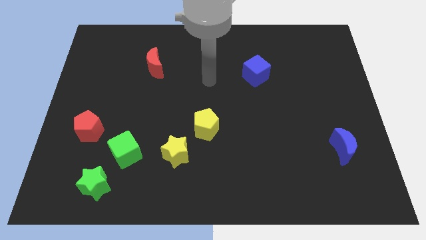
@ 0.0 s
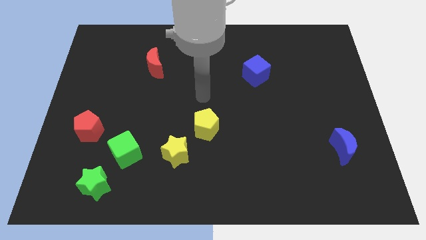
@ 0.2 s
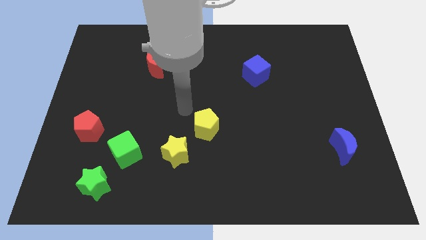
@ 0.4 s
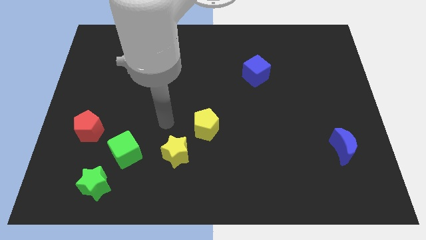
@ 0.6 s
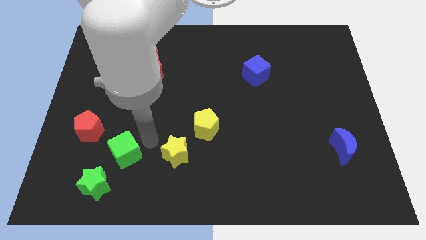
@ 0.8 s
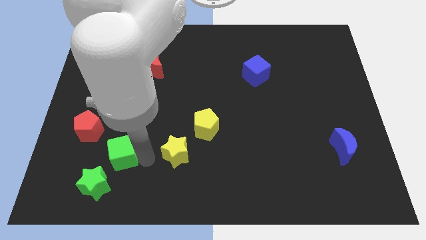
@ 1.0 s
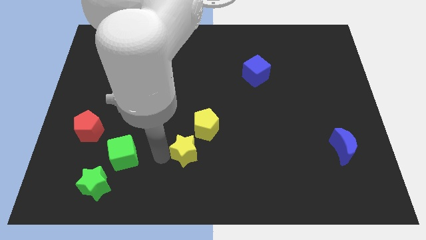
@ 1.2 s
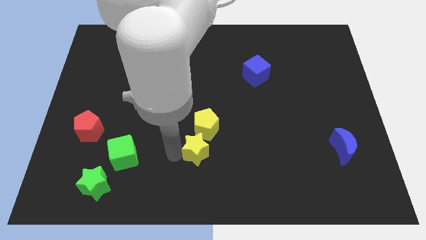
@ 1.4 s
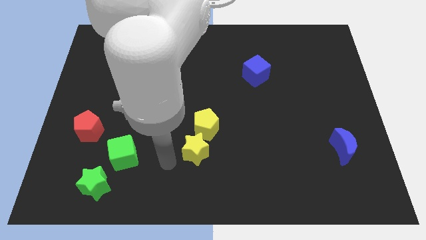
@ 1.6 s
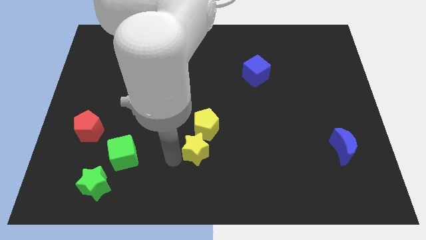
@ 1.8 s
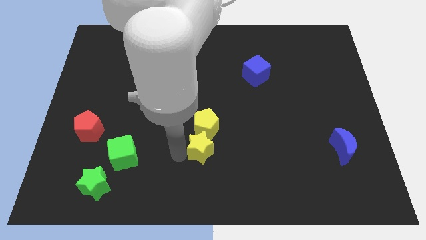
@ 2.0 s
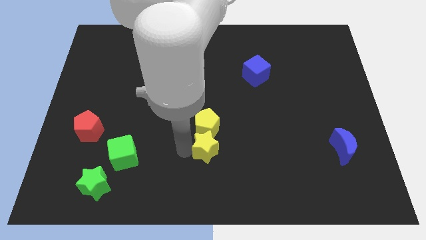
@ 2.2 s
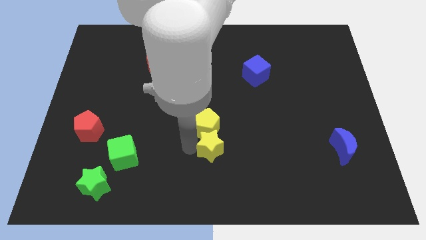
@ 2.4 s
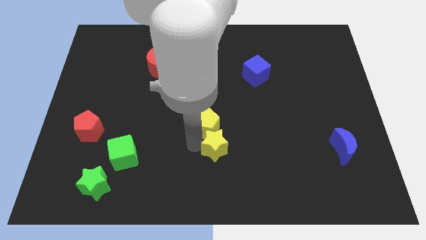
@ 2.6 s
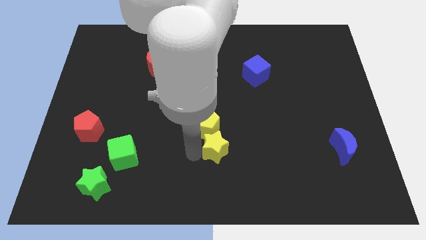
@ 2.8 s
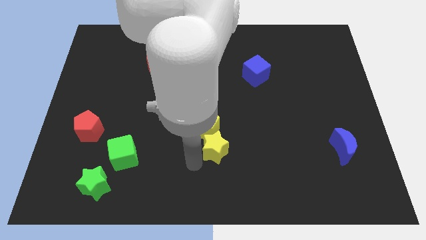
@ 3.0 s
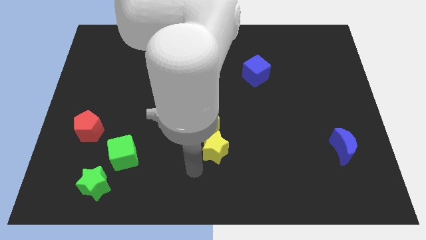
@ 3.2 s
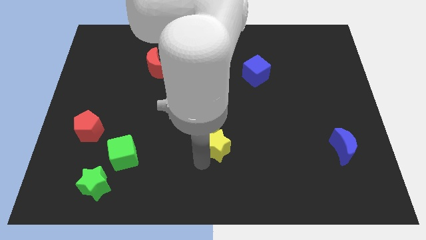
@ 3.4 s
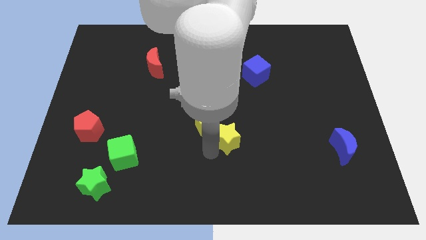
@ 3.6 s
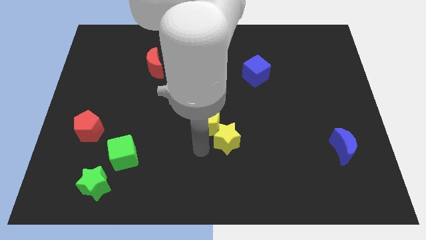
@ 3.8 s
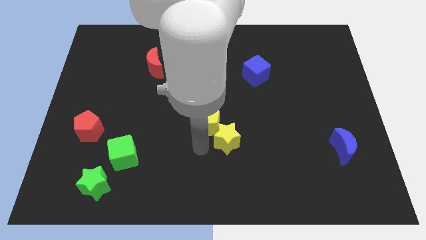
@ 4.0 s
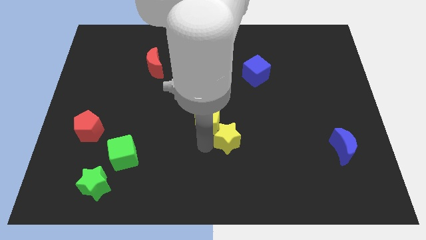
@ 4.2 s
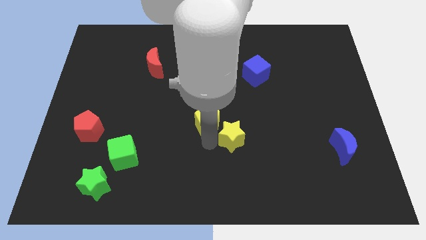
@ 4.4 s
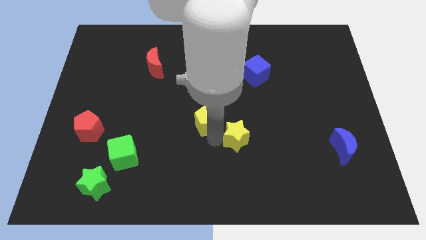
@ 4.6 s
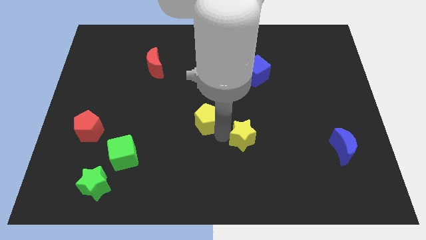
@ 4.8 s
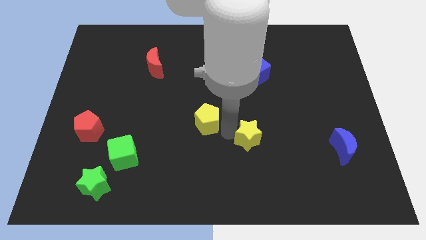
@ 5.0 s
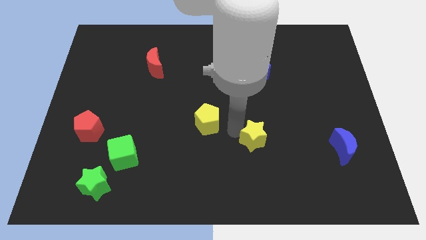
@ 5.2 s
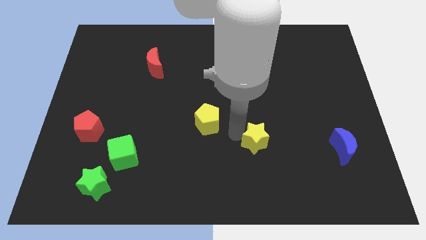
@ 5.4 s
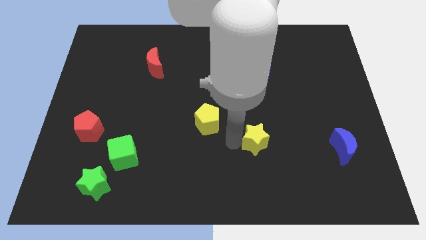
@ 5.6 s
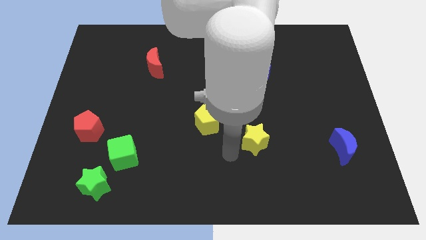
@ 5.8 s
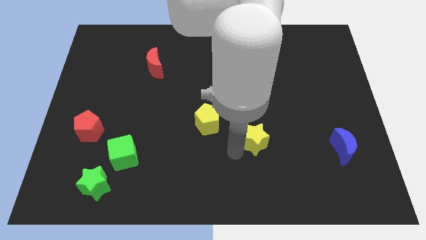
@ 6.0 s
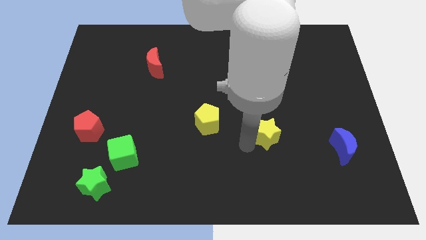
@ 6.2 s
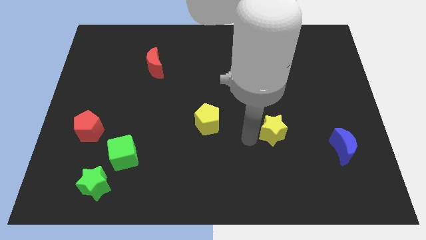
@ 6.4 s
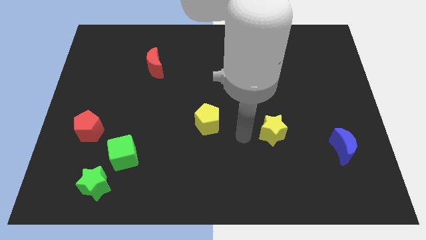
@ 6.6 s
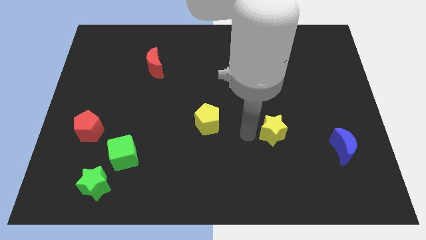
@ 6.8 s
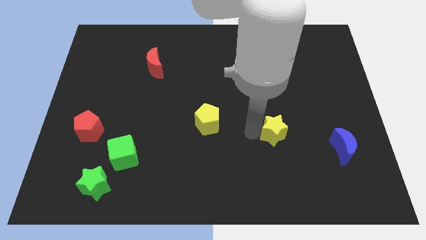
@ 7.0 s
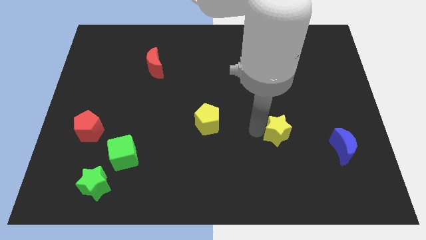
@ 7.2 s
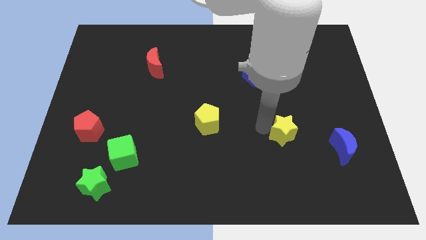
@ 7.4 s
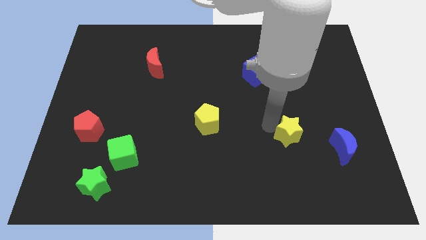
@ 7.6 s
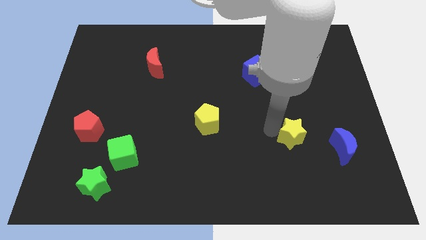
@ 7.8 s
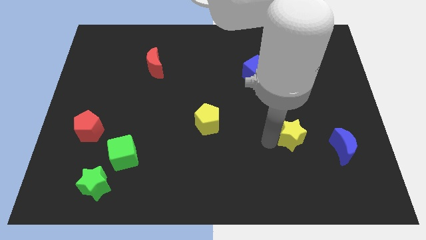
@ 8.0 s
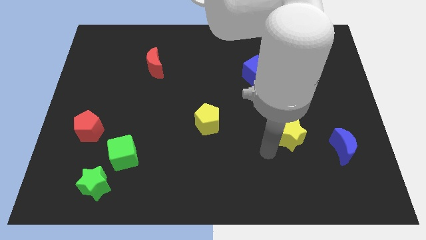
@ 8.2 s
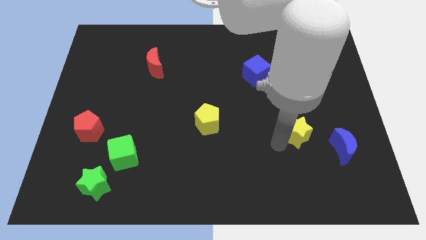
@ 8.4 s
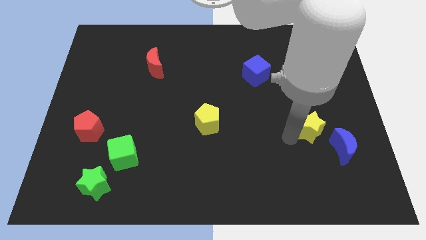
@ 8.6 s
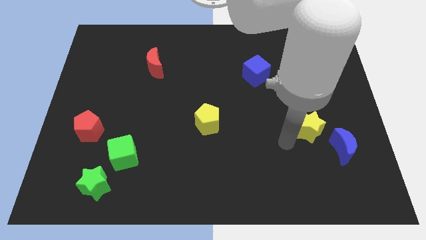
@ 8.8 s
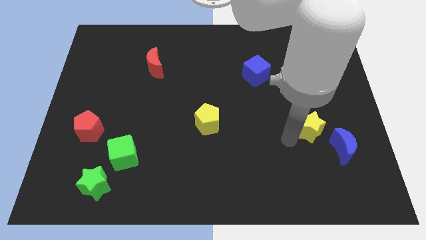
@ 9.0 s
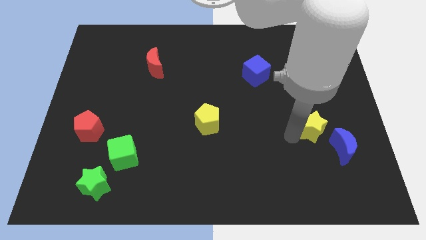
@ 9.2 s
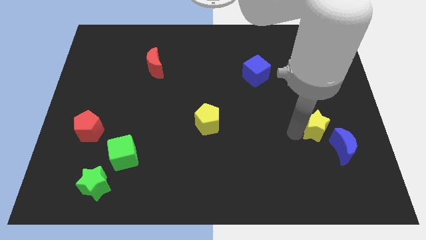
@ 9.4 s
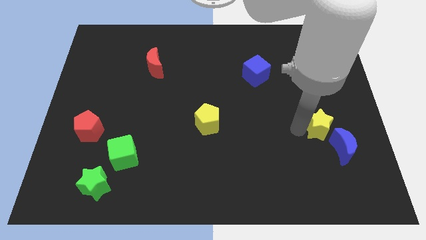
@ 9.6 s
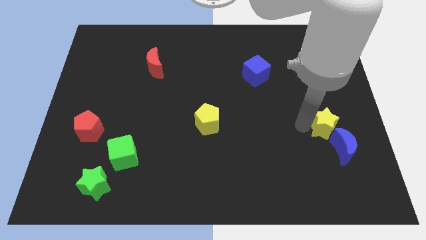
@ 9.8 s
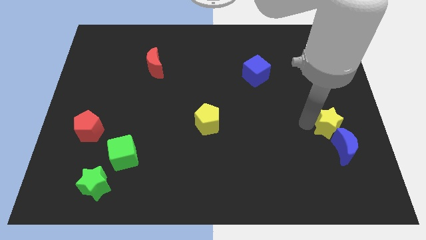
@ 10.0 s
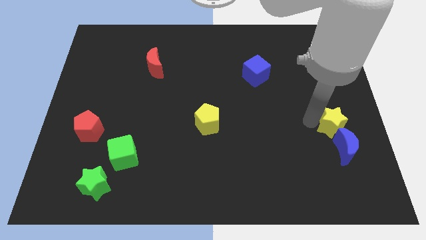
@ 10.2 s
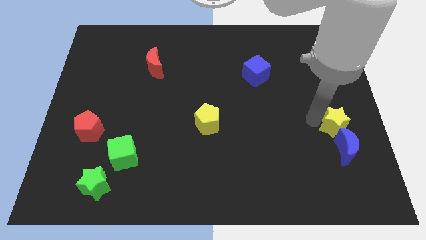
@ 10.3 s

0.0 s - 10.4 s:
slide the yellow star to the center right

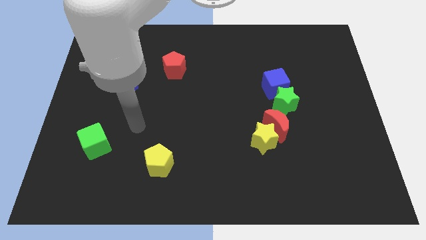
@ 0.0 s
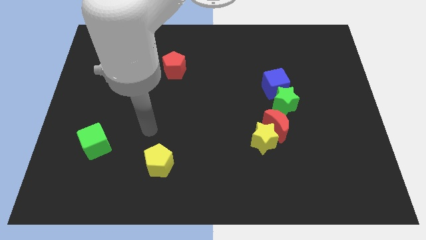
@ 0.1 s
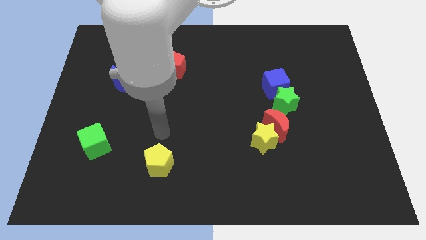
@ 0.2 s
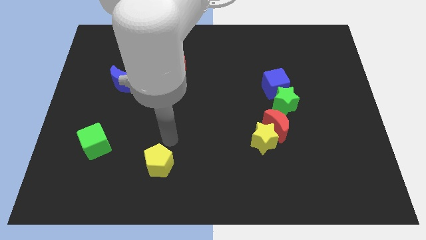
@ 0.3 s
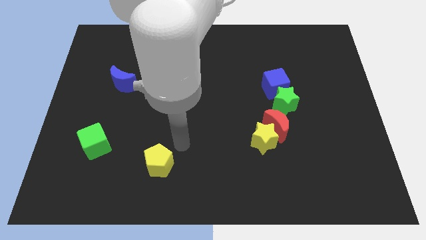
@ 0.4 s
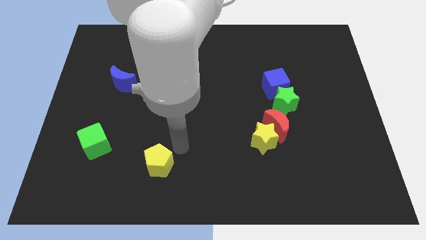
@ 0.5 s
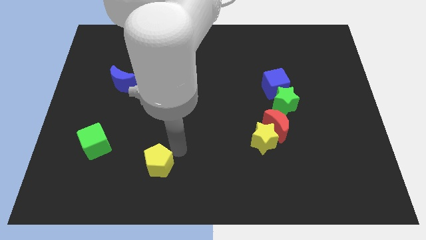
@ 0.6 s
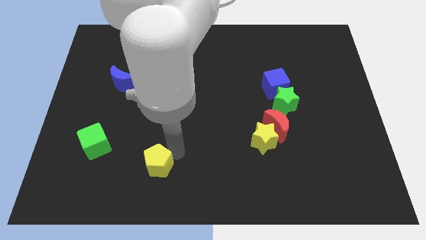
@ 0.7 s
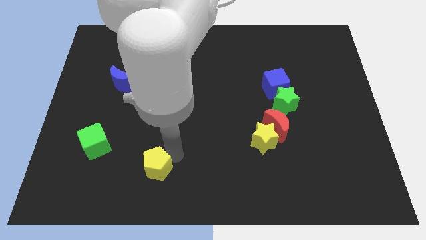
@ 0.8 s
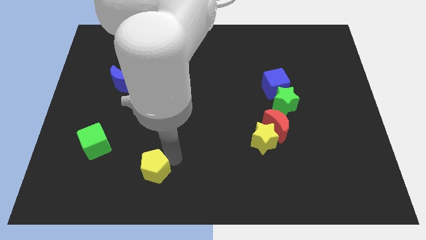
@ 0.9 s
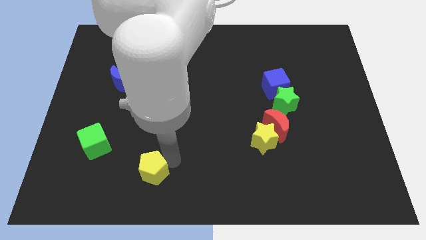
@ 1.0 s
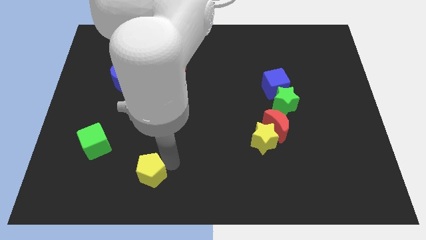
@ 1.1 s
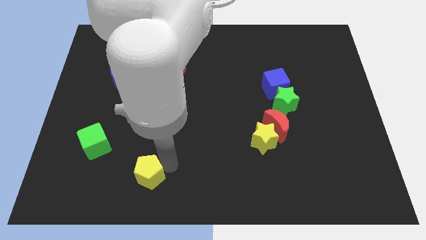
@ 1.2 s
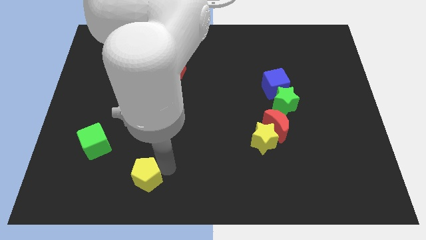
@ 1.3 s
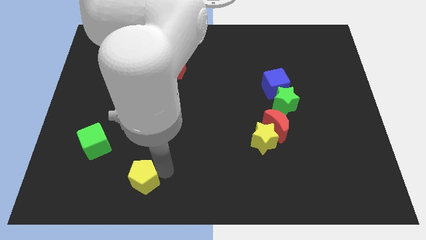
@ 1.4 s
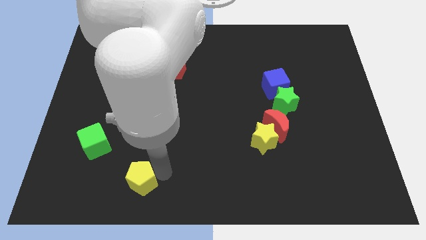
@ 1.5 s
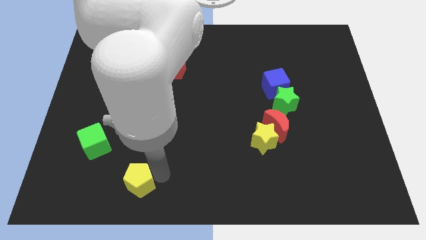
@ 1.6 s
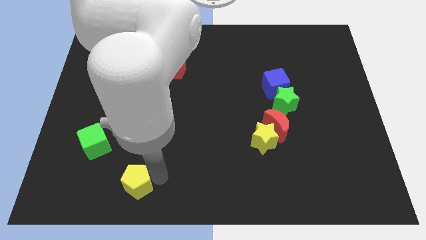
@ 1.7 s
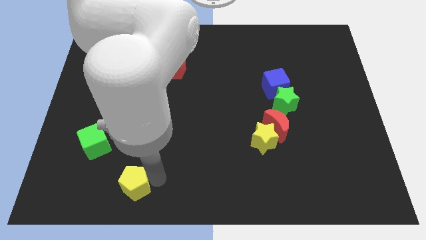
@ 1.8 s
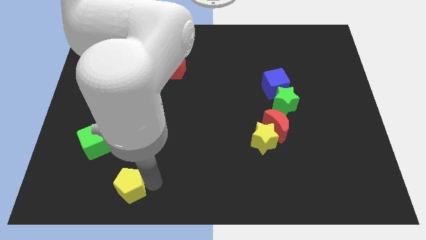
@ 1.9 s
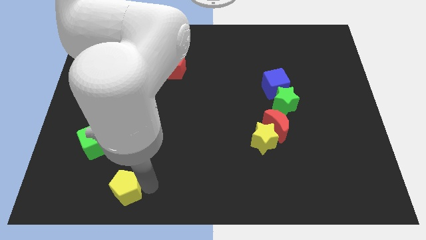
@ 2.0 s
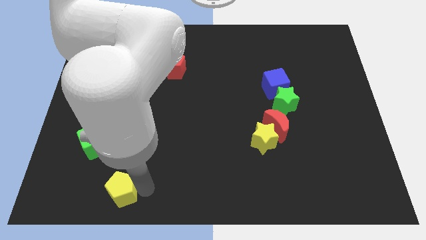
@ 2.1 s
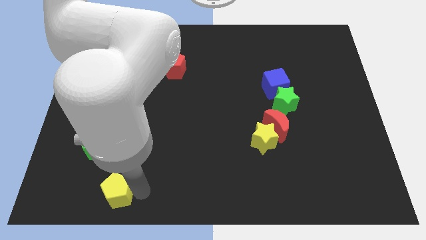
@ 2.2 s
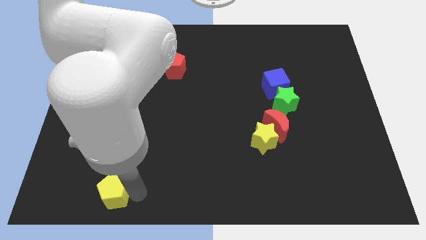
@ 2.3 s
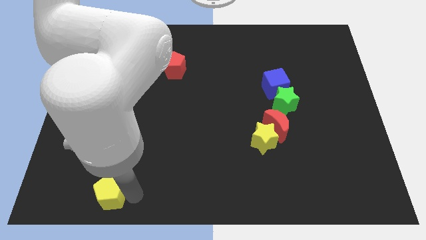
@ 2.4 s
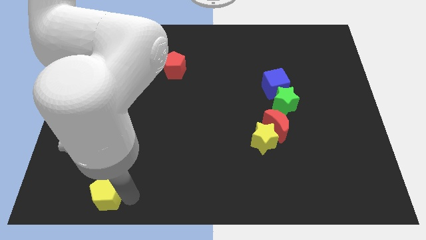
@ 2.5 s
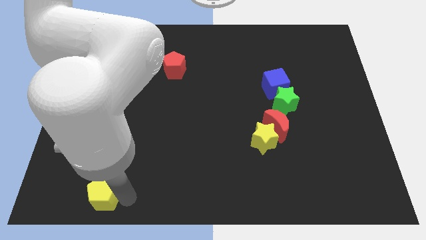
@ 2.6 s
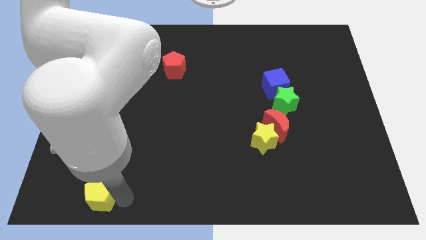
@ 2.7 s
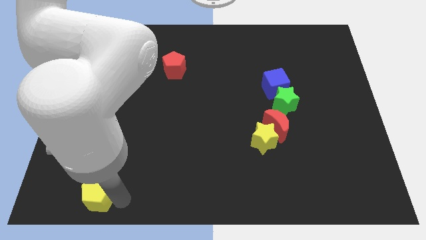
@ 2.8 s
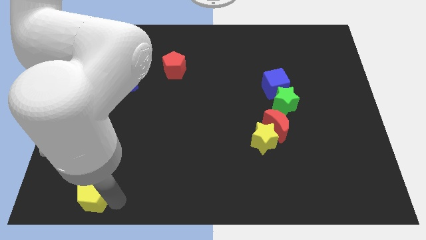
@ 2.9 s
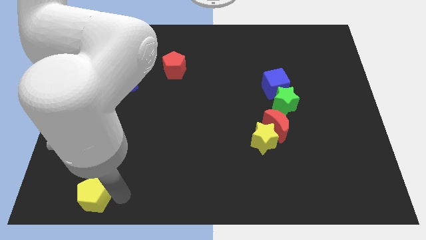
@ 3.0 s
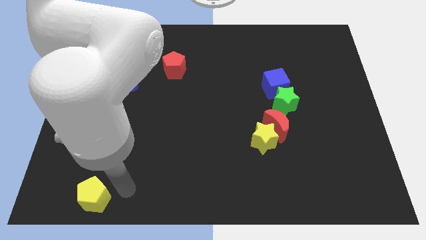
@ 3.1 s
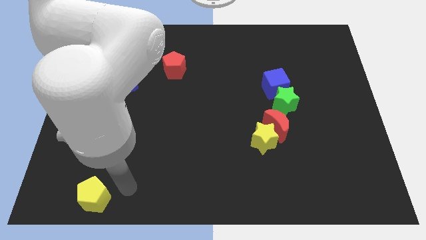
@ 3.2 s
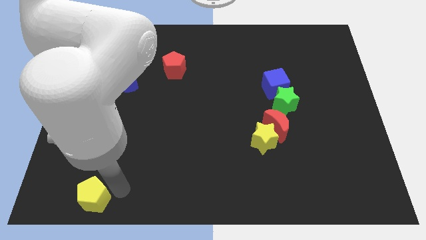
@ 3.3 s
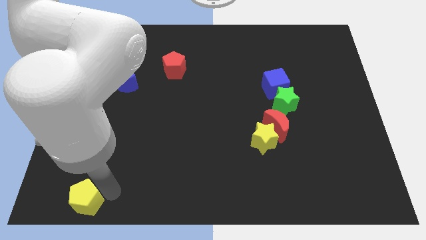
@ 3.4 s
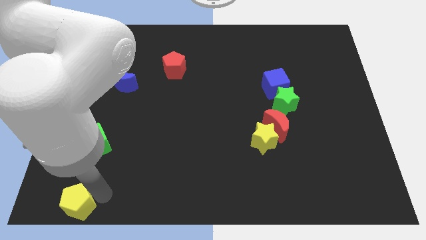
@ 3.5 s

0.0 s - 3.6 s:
move the yellow pentagon to the lower left corner
